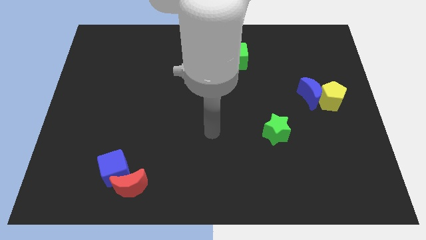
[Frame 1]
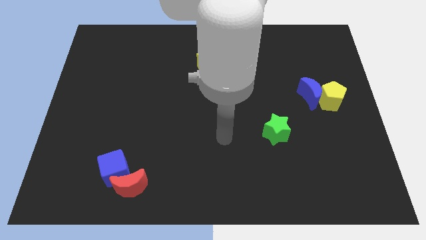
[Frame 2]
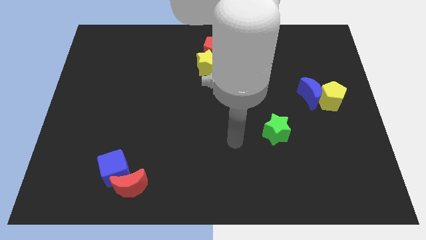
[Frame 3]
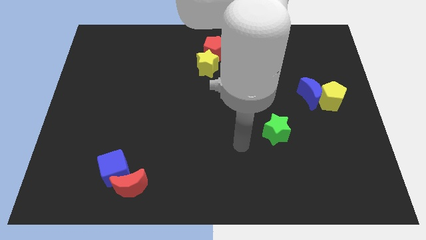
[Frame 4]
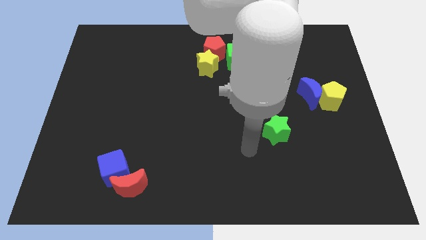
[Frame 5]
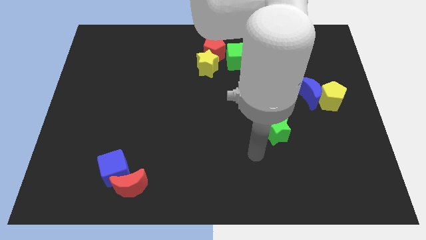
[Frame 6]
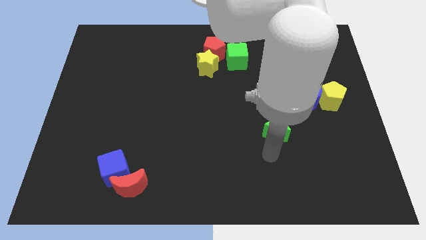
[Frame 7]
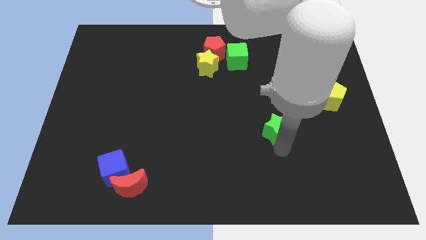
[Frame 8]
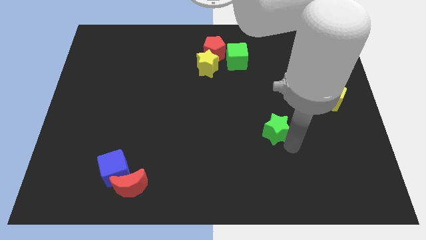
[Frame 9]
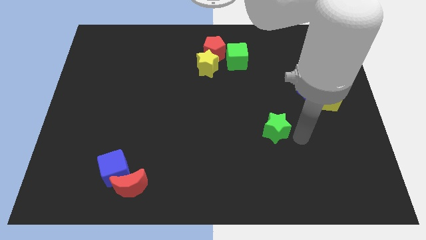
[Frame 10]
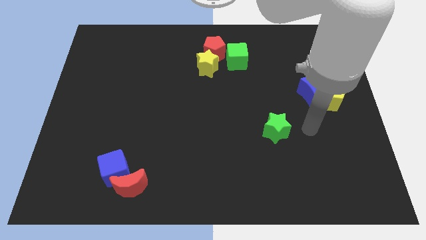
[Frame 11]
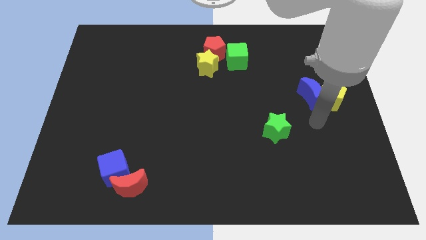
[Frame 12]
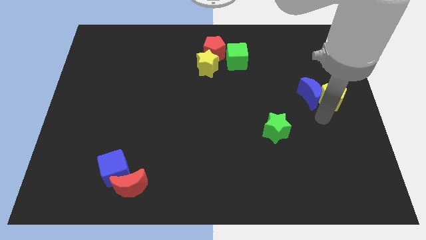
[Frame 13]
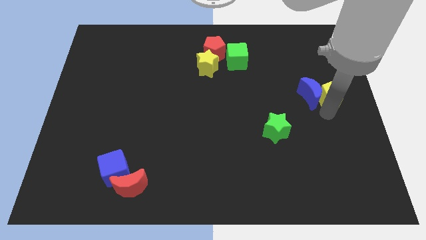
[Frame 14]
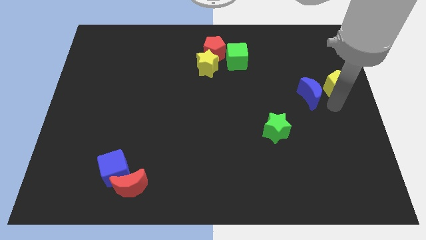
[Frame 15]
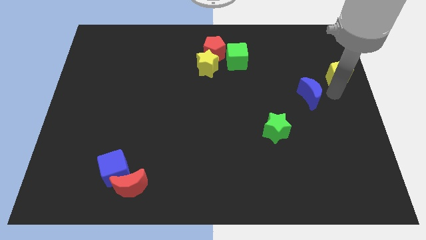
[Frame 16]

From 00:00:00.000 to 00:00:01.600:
pull the blue moon apart from the yellow pentagon

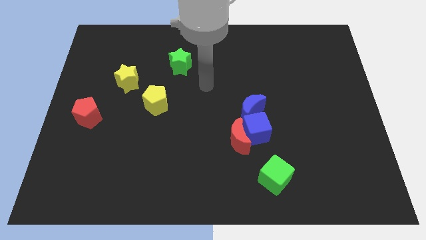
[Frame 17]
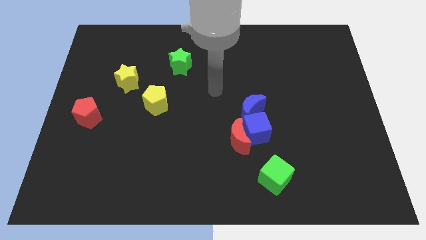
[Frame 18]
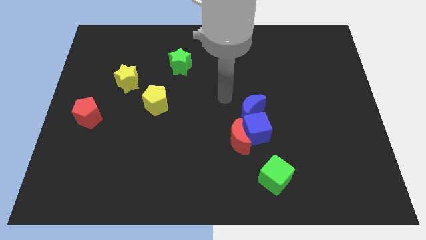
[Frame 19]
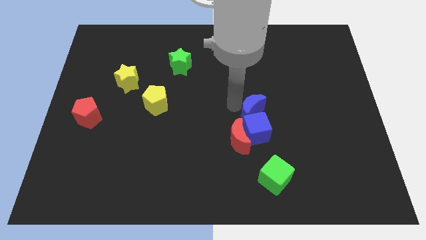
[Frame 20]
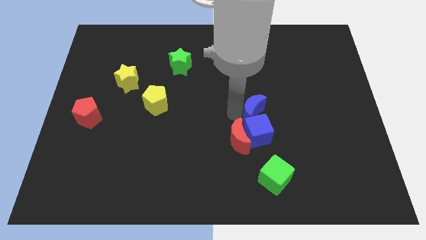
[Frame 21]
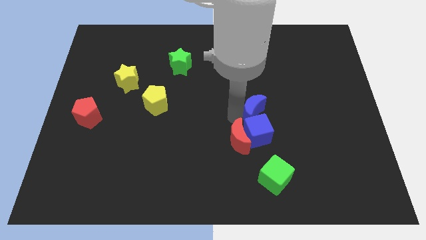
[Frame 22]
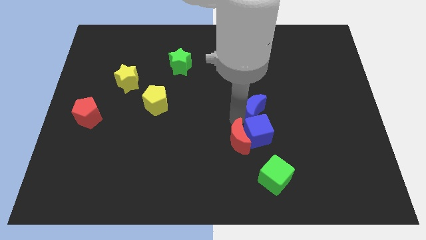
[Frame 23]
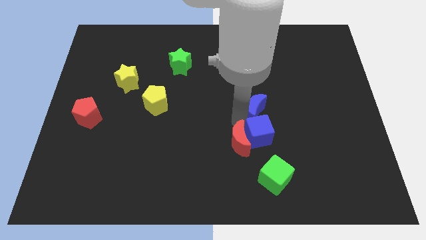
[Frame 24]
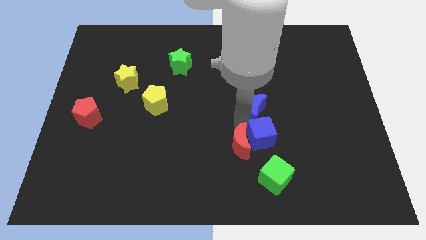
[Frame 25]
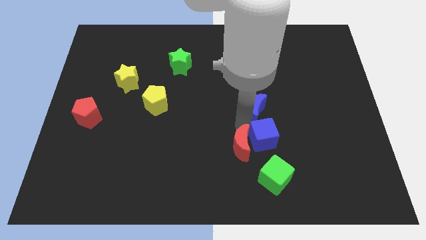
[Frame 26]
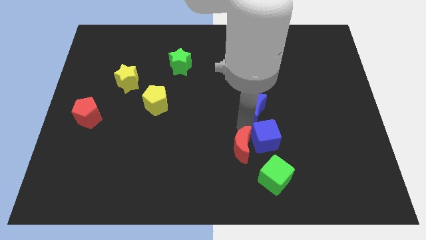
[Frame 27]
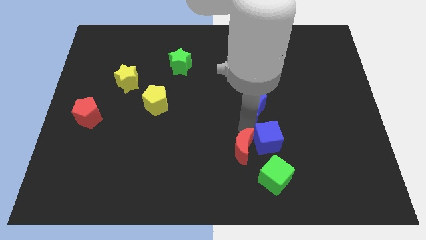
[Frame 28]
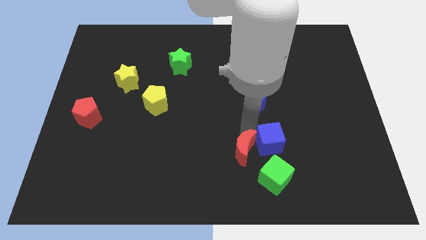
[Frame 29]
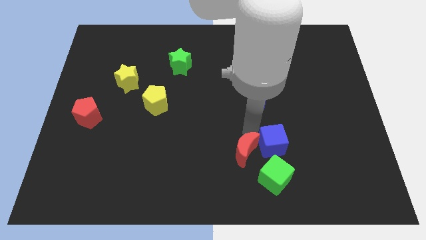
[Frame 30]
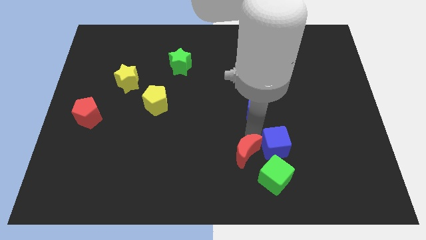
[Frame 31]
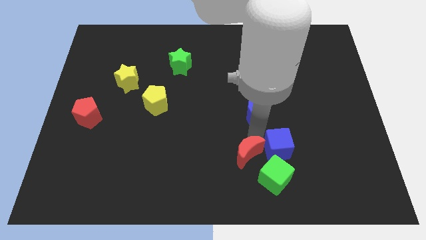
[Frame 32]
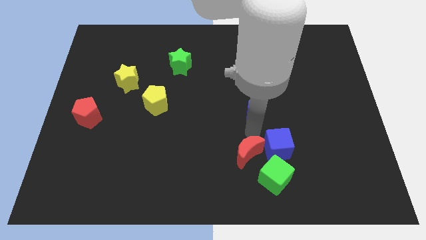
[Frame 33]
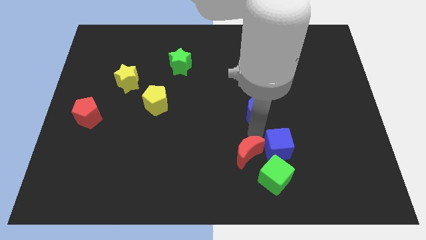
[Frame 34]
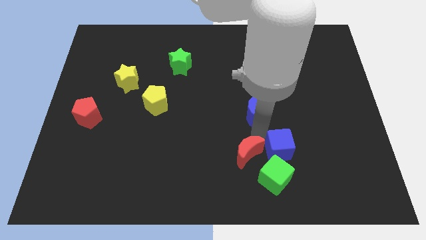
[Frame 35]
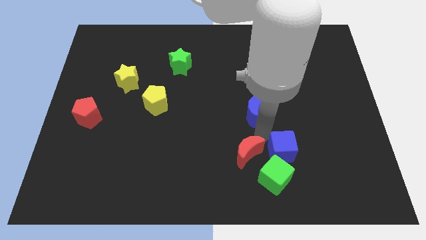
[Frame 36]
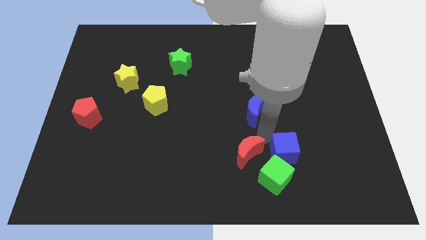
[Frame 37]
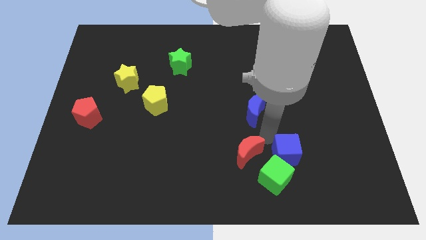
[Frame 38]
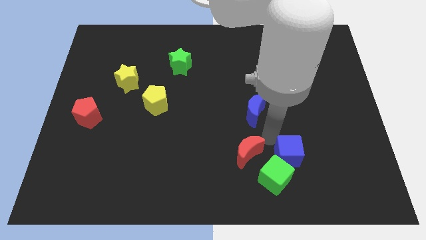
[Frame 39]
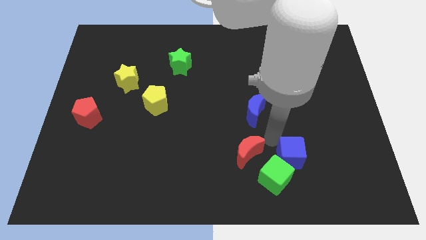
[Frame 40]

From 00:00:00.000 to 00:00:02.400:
move the blue cube away from the red moon and blue moon

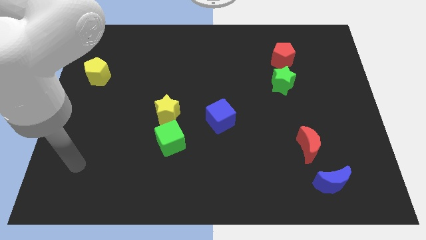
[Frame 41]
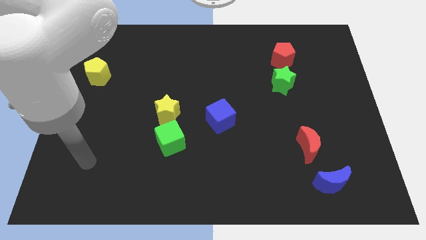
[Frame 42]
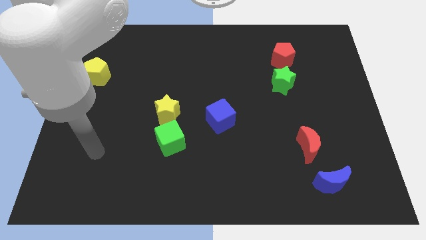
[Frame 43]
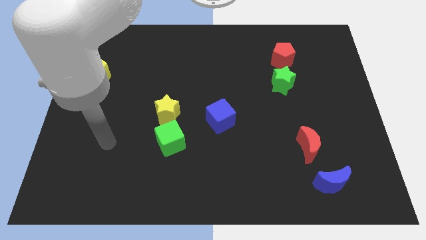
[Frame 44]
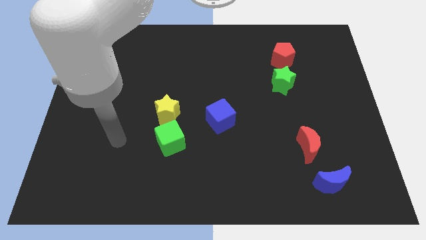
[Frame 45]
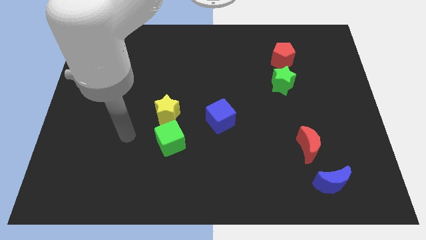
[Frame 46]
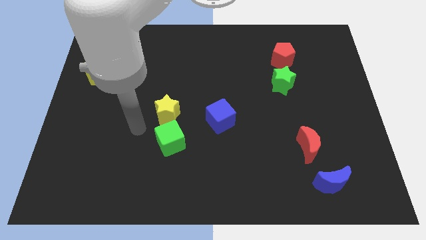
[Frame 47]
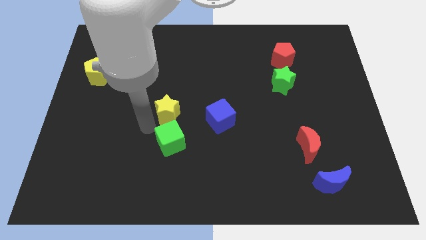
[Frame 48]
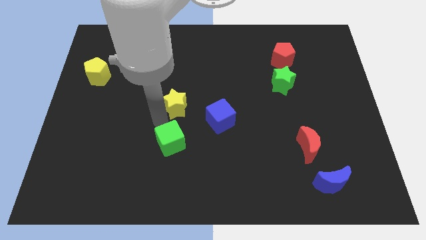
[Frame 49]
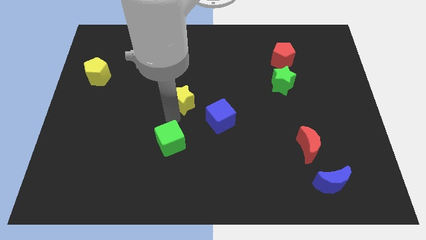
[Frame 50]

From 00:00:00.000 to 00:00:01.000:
pull the green cube apart from the yellow star

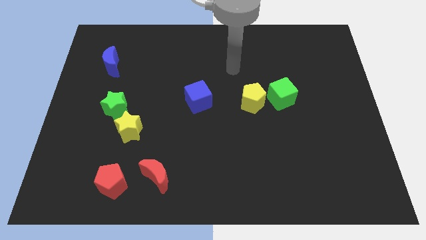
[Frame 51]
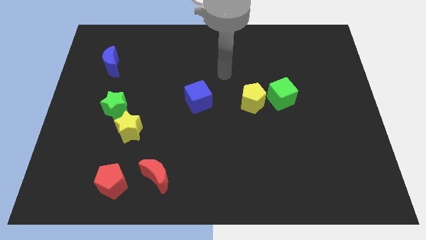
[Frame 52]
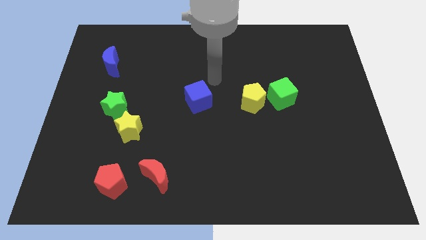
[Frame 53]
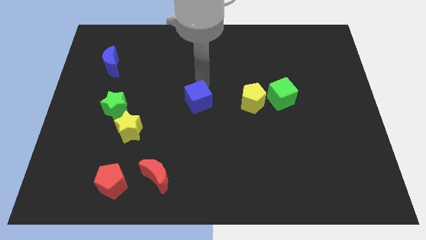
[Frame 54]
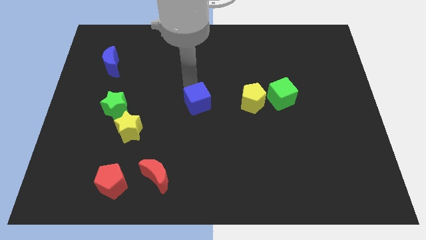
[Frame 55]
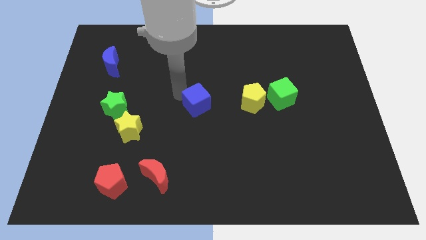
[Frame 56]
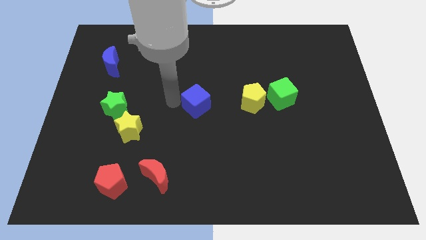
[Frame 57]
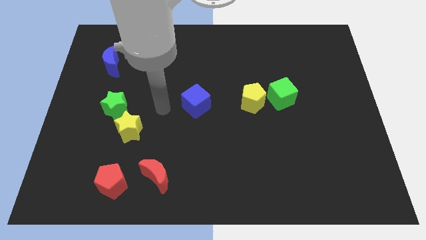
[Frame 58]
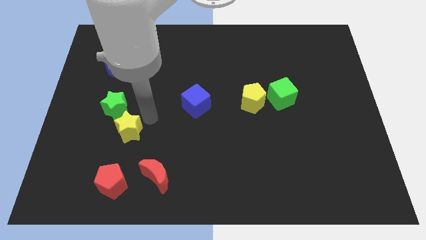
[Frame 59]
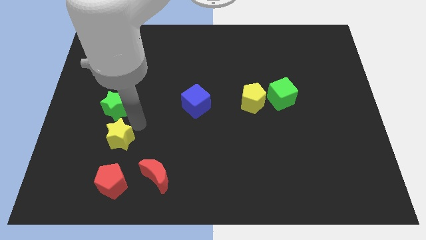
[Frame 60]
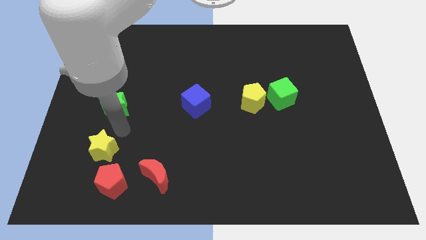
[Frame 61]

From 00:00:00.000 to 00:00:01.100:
pull the green star apart from the yellow star

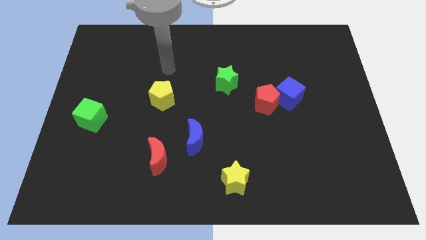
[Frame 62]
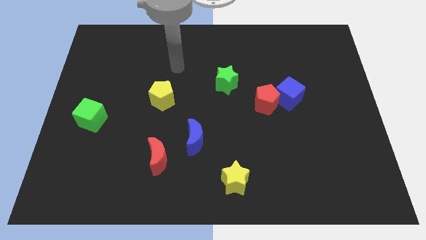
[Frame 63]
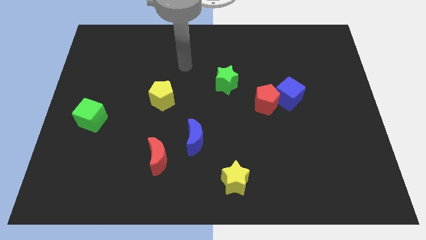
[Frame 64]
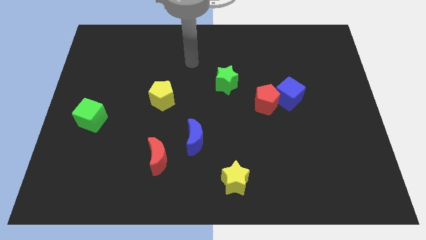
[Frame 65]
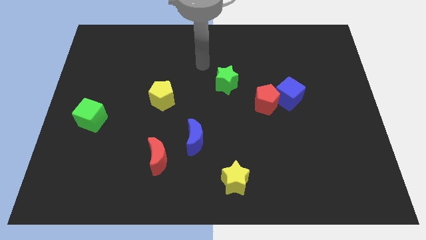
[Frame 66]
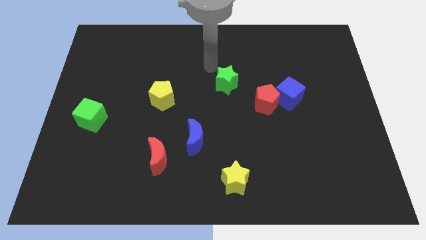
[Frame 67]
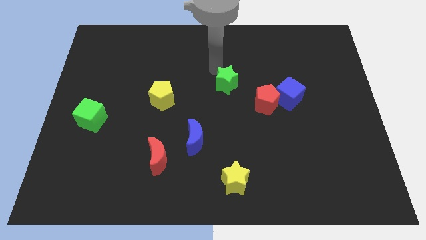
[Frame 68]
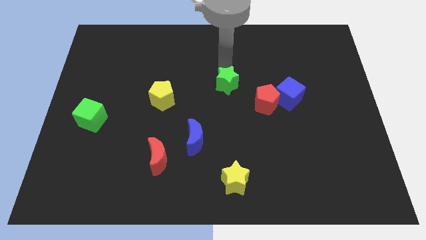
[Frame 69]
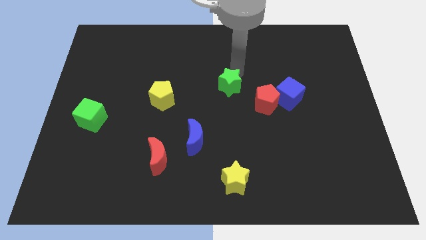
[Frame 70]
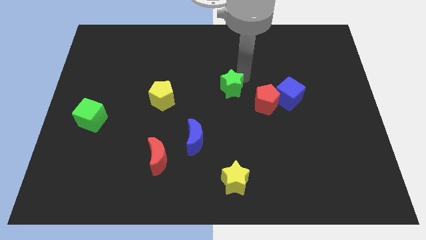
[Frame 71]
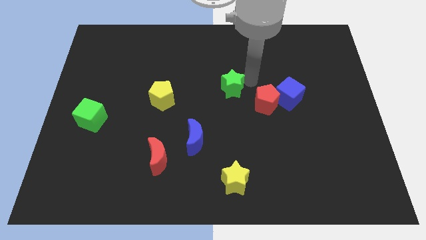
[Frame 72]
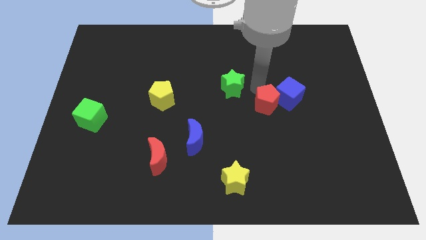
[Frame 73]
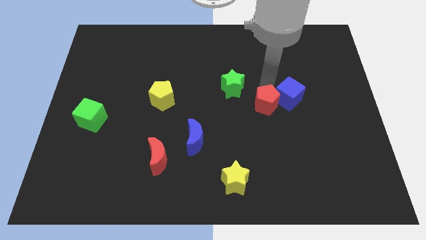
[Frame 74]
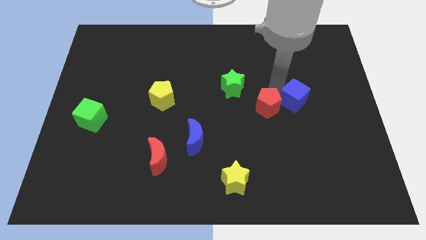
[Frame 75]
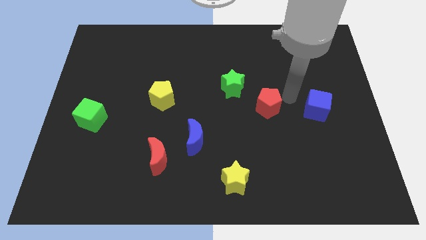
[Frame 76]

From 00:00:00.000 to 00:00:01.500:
move the red pentagon away from the blue cube

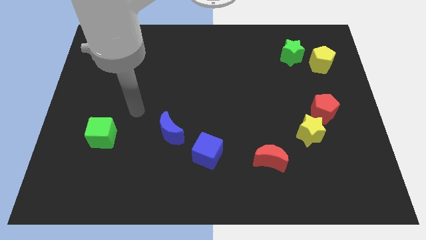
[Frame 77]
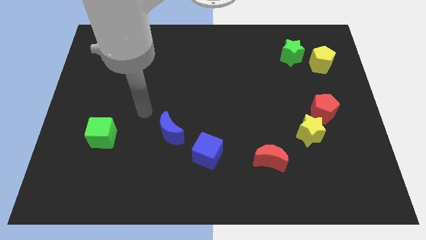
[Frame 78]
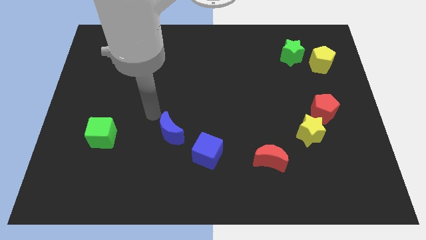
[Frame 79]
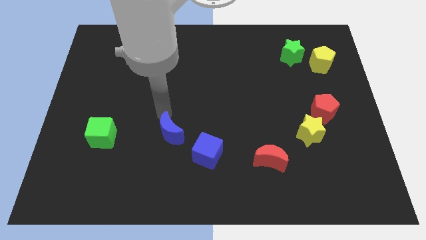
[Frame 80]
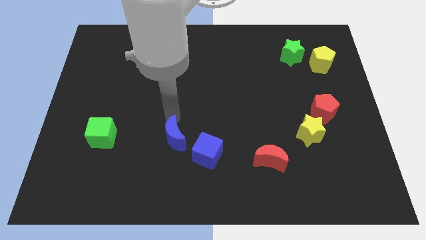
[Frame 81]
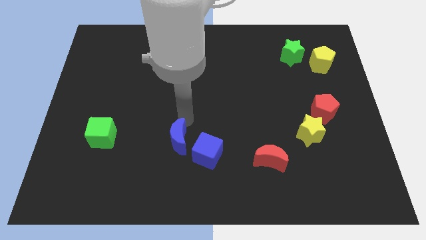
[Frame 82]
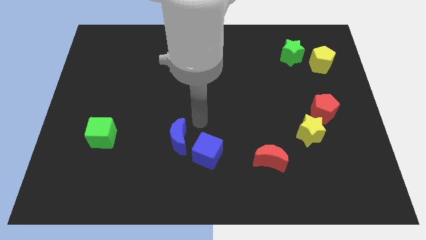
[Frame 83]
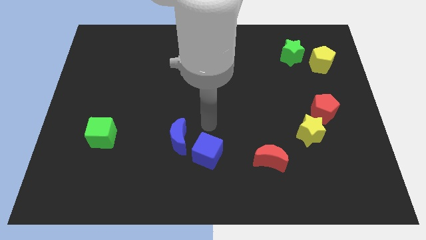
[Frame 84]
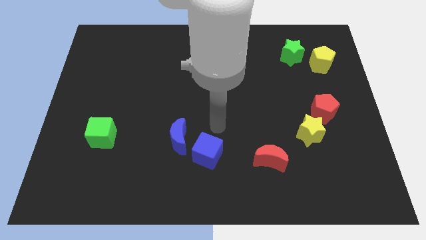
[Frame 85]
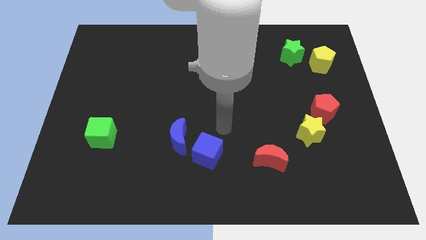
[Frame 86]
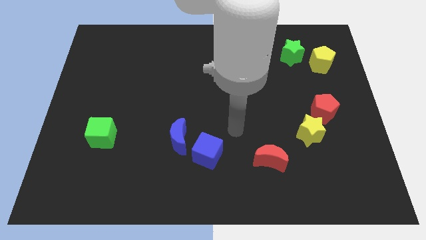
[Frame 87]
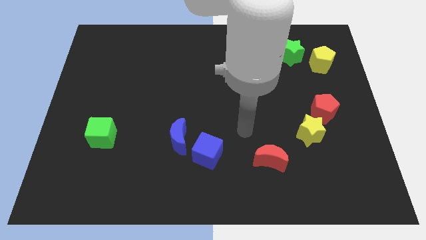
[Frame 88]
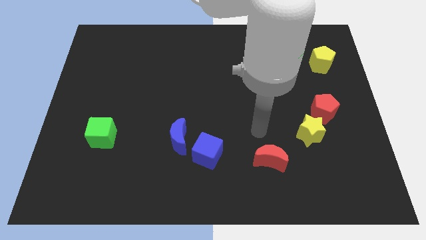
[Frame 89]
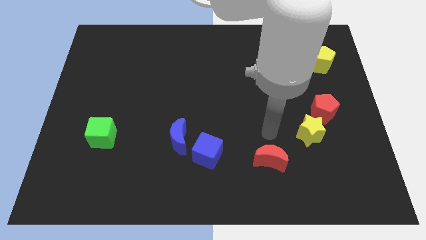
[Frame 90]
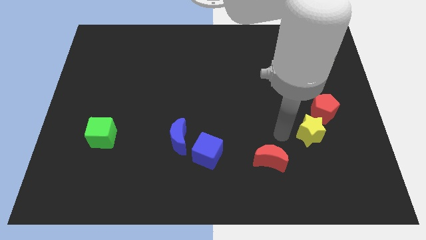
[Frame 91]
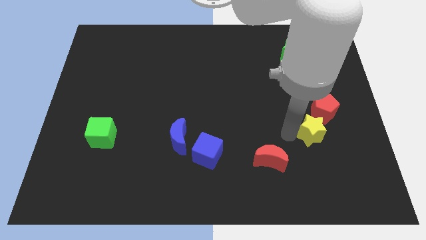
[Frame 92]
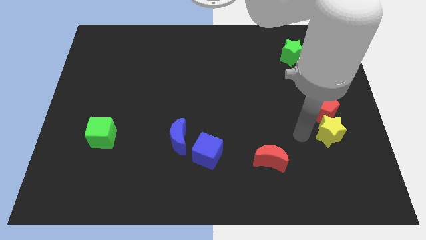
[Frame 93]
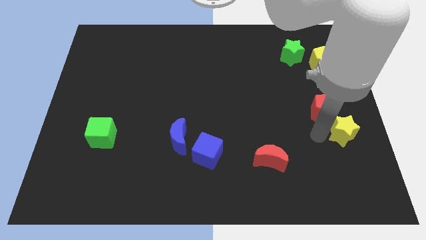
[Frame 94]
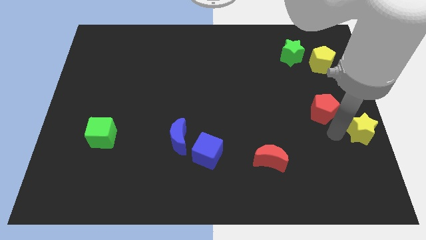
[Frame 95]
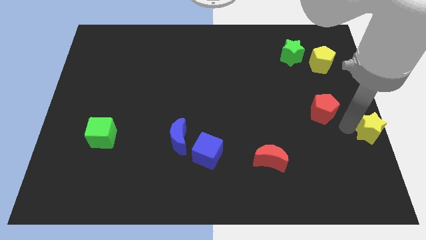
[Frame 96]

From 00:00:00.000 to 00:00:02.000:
separate the red pentagon from the yellow star
